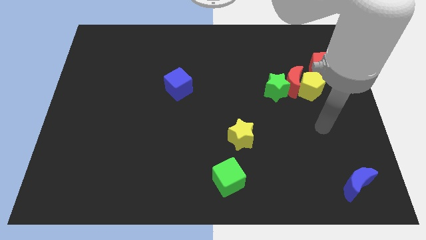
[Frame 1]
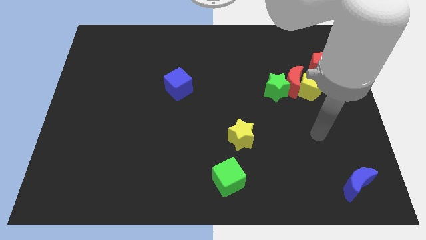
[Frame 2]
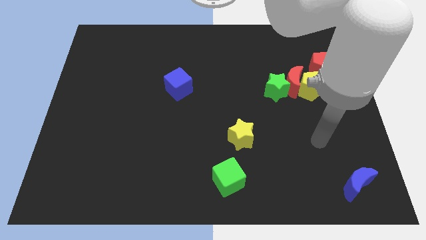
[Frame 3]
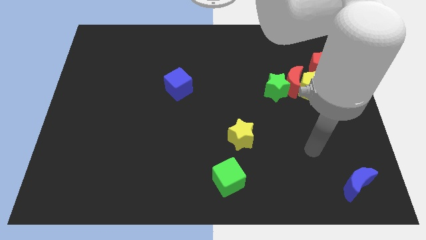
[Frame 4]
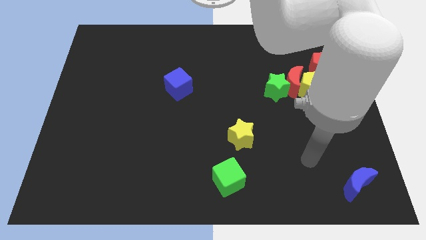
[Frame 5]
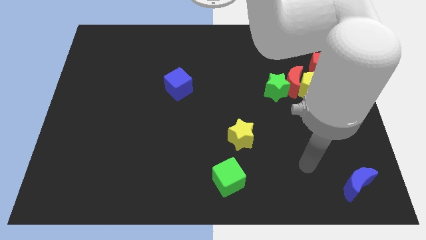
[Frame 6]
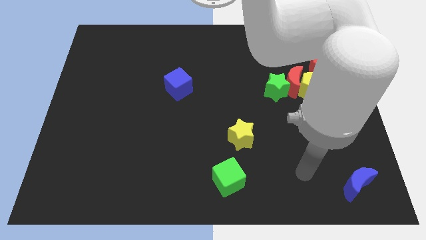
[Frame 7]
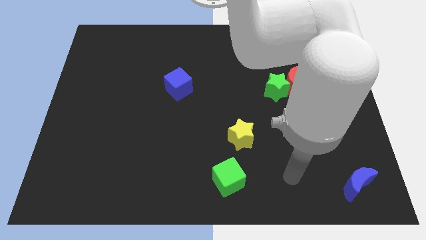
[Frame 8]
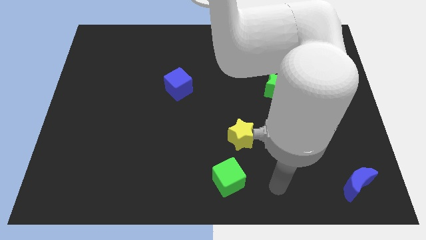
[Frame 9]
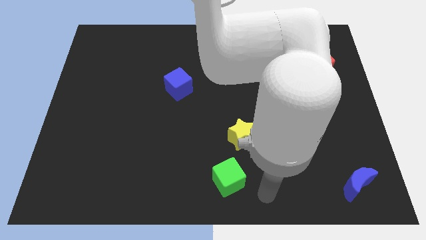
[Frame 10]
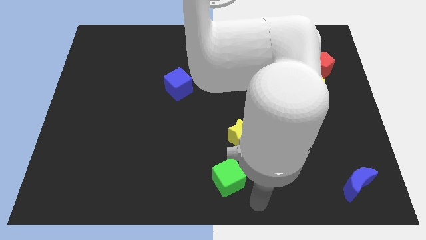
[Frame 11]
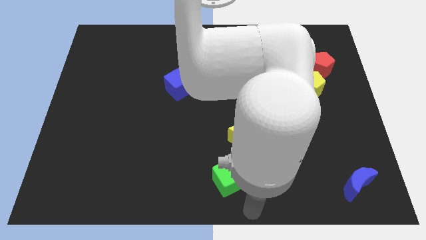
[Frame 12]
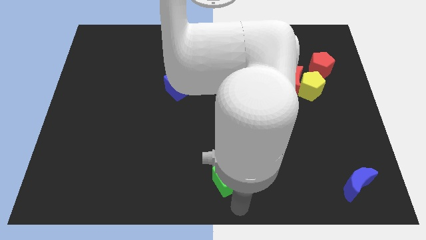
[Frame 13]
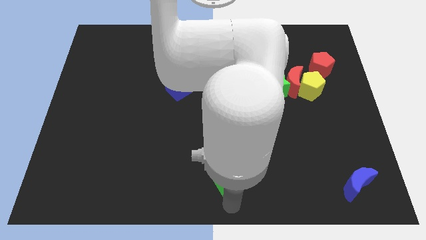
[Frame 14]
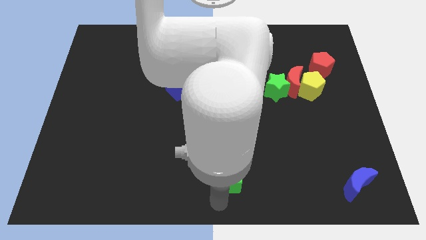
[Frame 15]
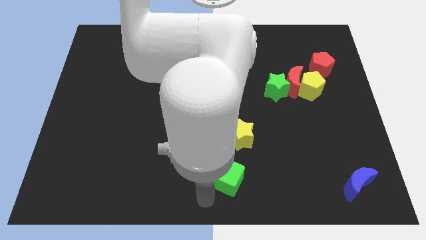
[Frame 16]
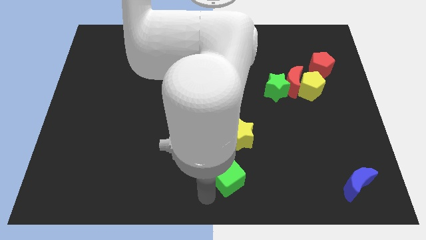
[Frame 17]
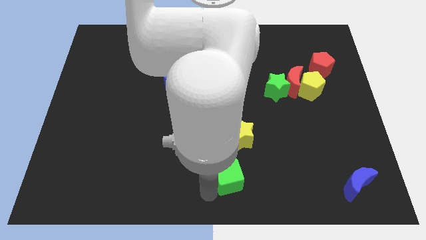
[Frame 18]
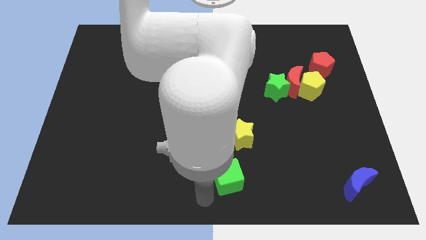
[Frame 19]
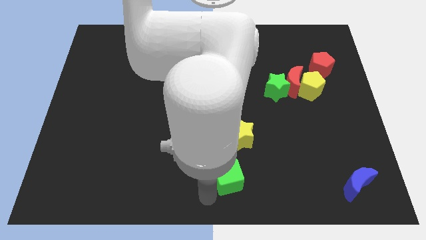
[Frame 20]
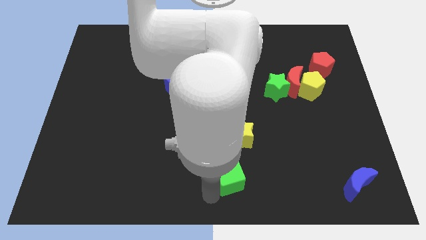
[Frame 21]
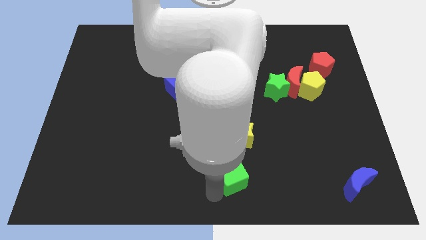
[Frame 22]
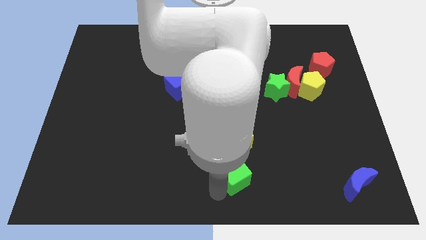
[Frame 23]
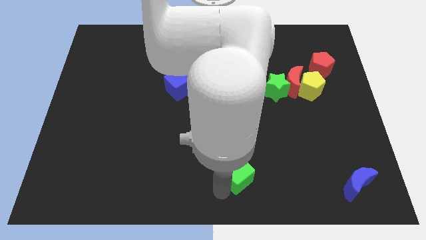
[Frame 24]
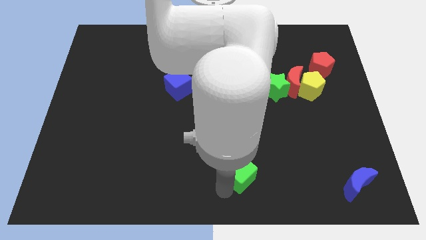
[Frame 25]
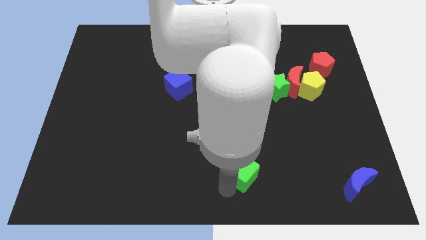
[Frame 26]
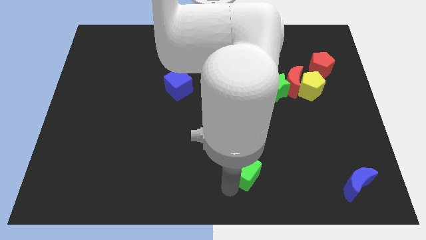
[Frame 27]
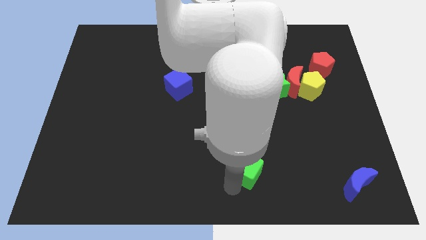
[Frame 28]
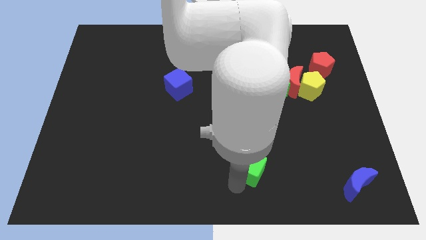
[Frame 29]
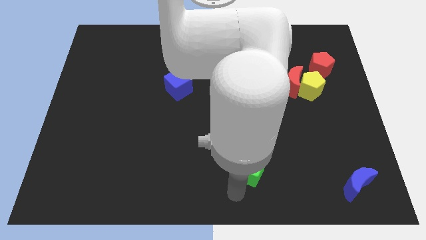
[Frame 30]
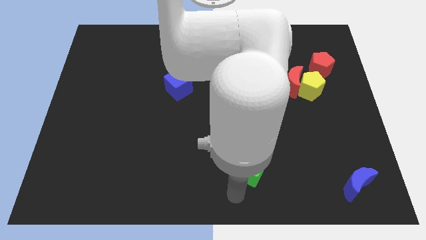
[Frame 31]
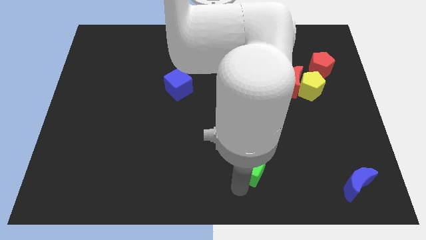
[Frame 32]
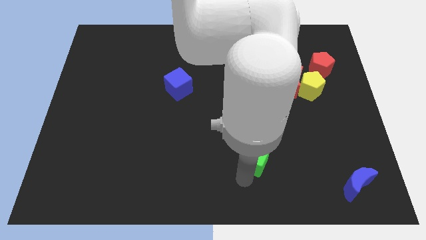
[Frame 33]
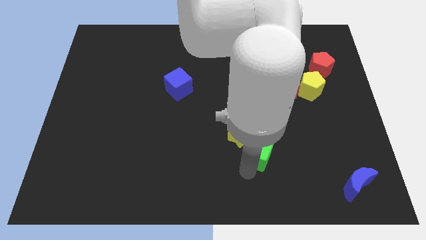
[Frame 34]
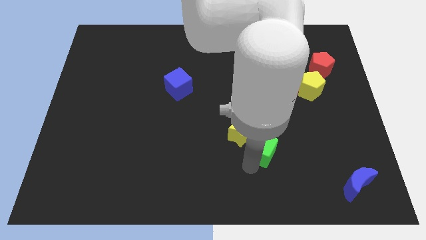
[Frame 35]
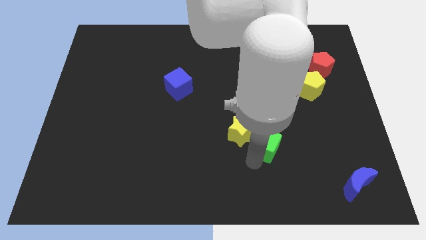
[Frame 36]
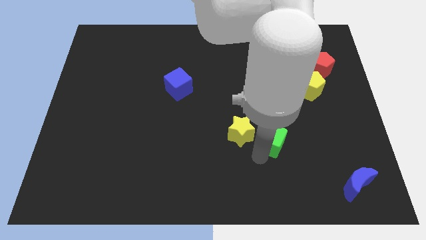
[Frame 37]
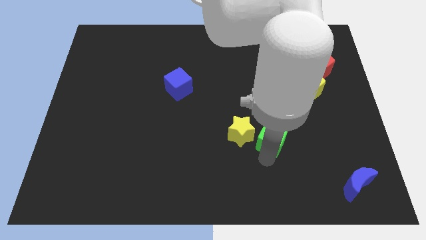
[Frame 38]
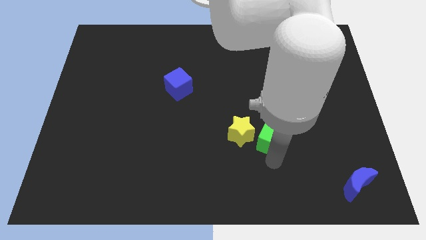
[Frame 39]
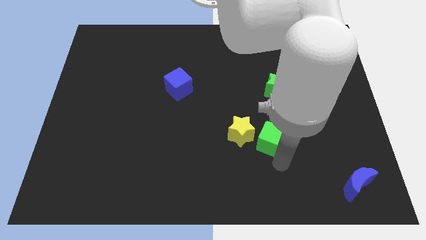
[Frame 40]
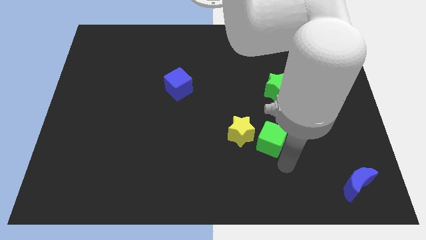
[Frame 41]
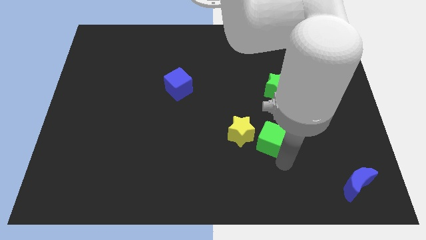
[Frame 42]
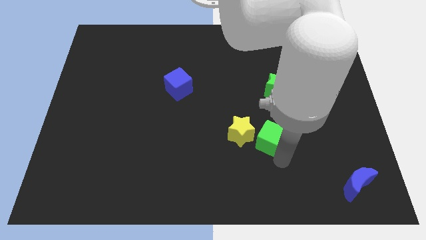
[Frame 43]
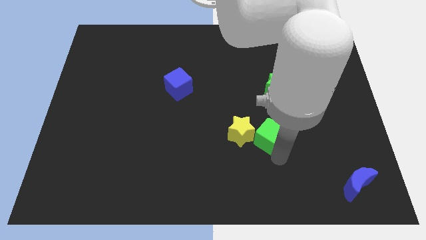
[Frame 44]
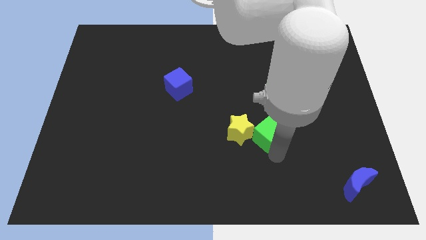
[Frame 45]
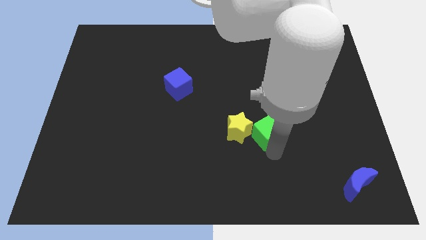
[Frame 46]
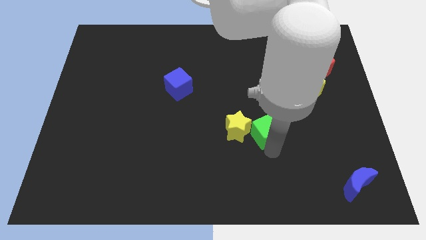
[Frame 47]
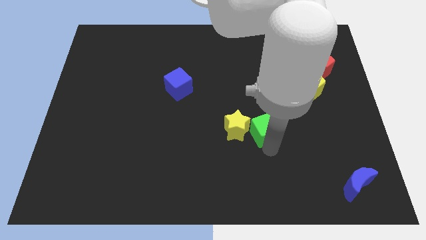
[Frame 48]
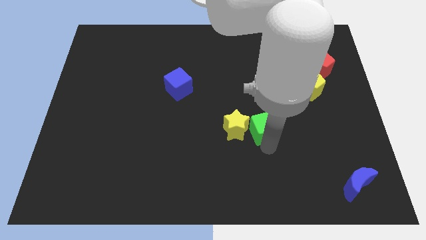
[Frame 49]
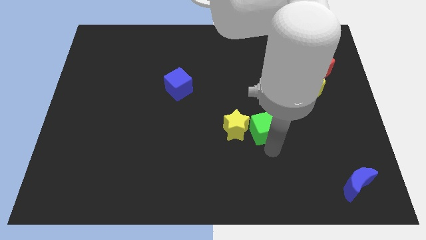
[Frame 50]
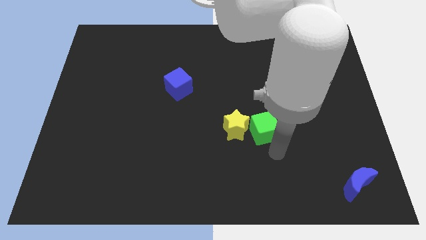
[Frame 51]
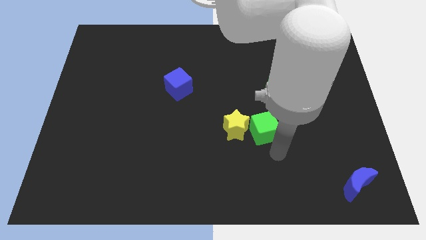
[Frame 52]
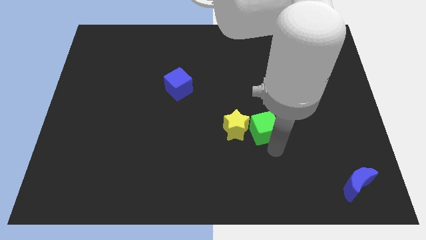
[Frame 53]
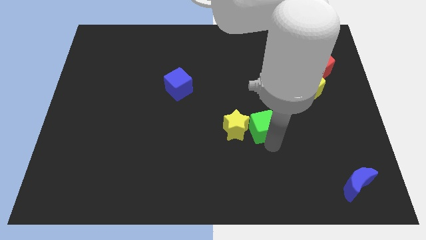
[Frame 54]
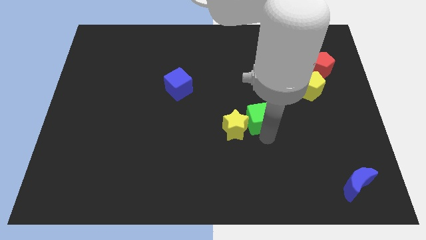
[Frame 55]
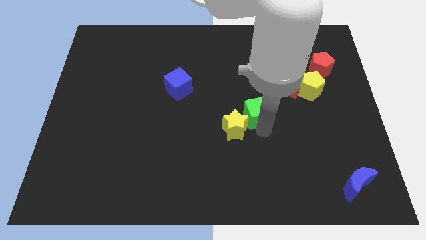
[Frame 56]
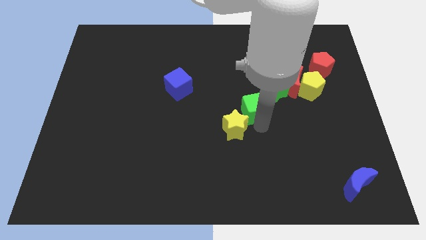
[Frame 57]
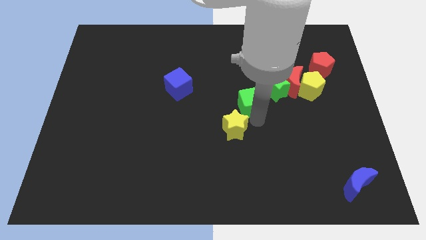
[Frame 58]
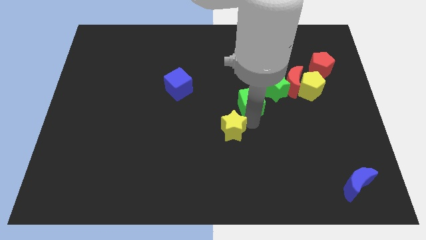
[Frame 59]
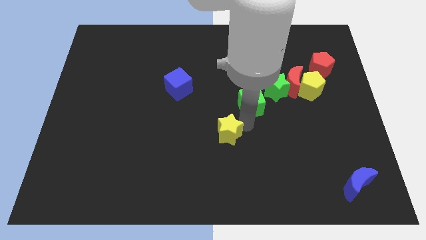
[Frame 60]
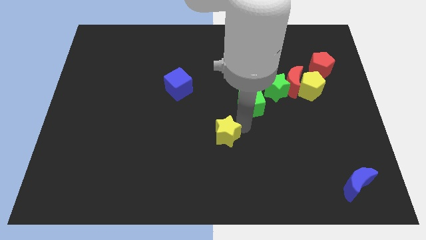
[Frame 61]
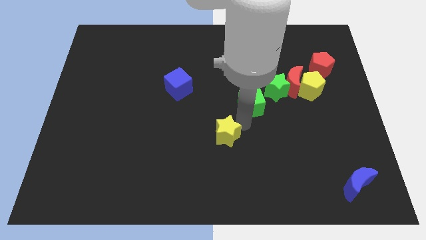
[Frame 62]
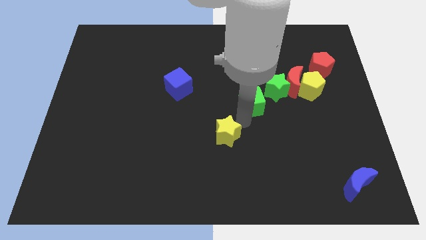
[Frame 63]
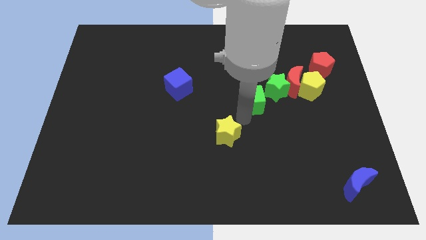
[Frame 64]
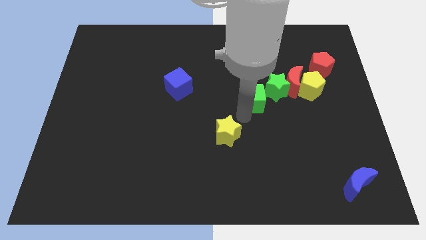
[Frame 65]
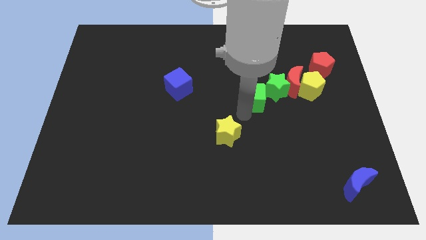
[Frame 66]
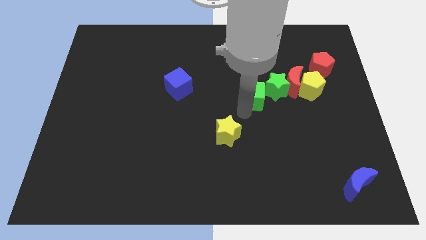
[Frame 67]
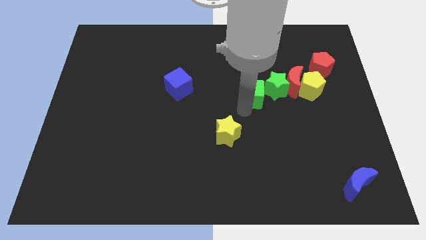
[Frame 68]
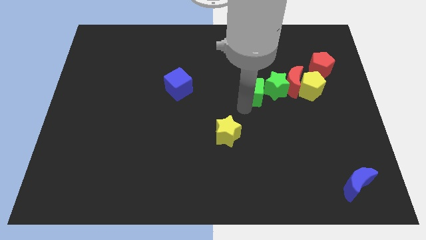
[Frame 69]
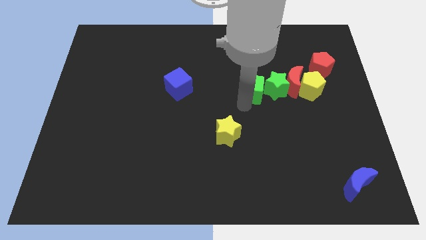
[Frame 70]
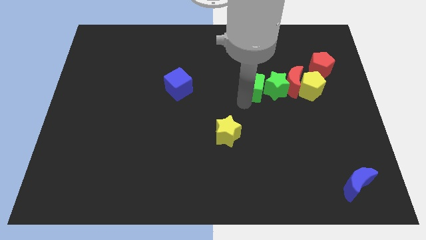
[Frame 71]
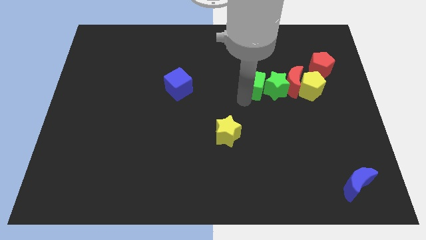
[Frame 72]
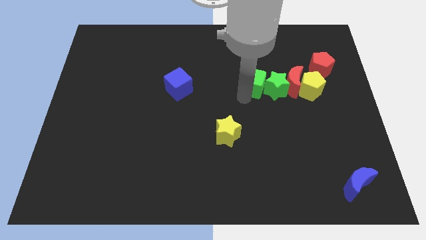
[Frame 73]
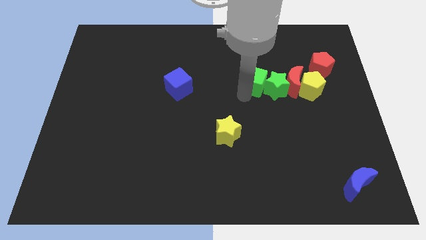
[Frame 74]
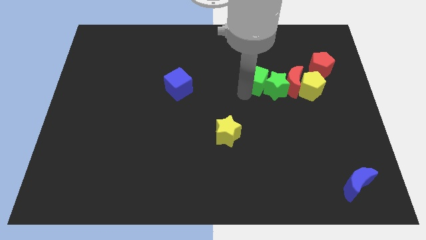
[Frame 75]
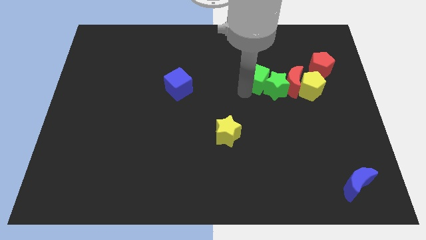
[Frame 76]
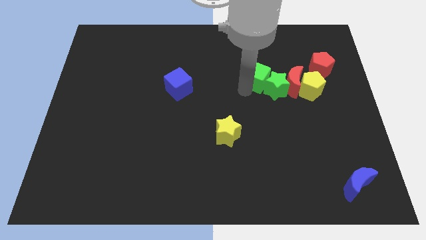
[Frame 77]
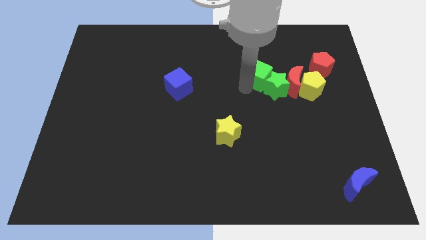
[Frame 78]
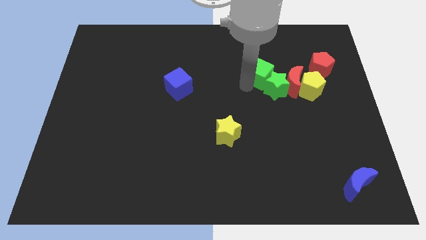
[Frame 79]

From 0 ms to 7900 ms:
put the green cube to the left of the red pentagon
